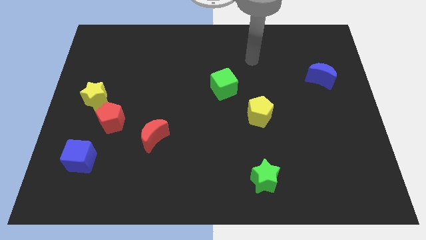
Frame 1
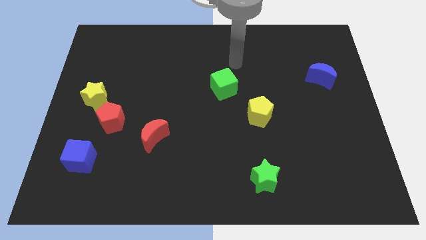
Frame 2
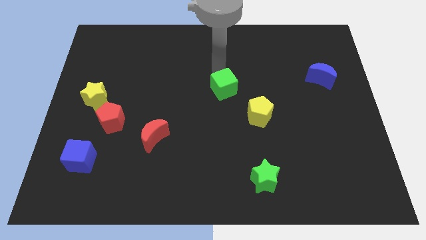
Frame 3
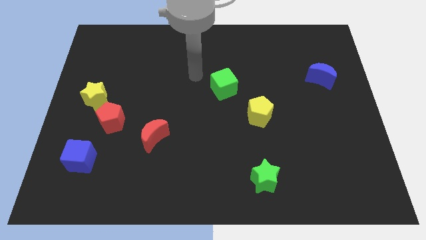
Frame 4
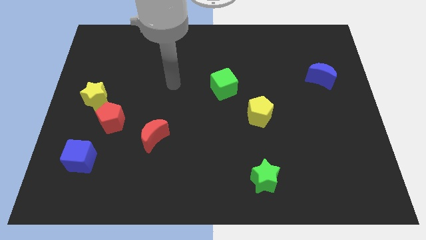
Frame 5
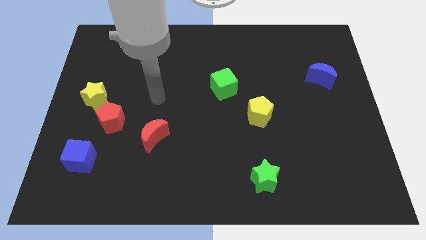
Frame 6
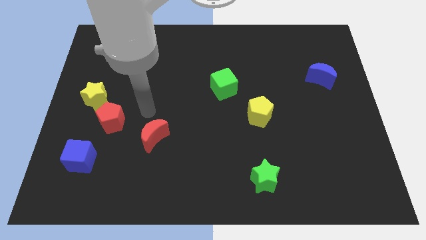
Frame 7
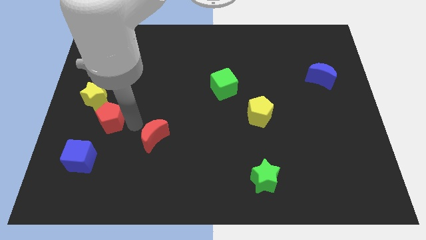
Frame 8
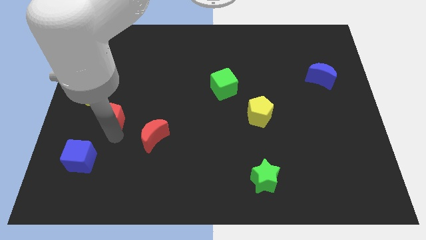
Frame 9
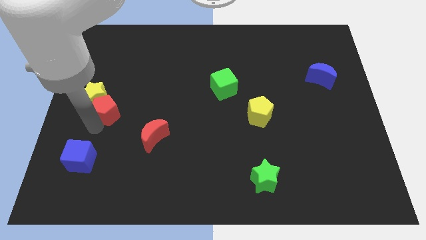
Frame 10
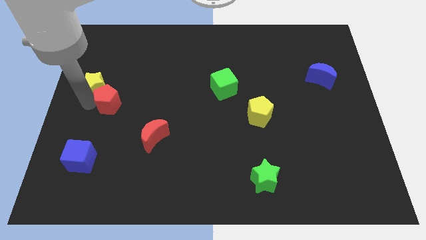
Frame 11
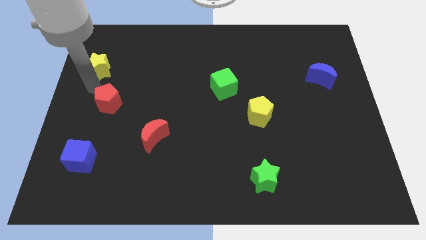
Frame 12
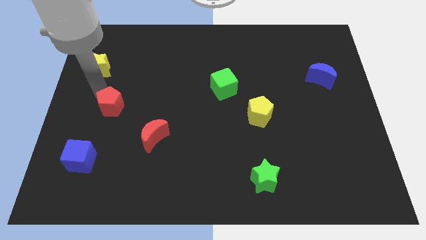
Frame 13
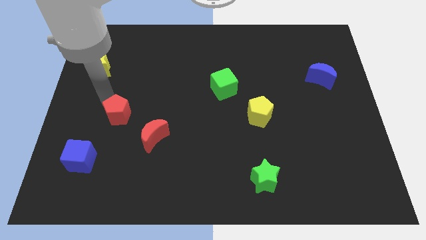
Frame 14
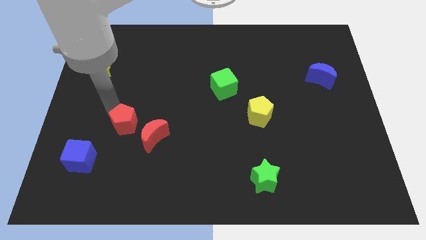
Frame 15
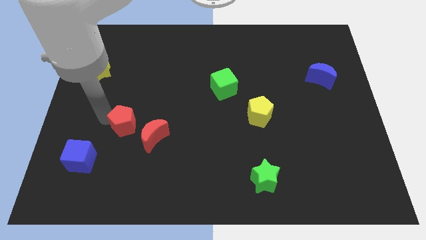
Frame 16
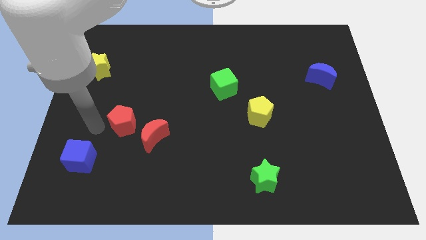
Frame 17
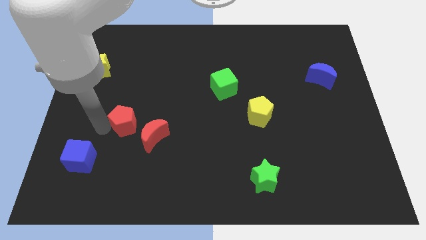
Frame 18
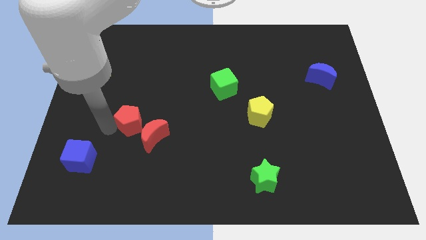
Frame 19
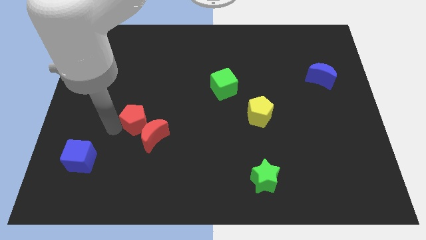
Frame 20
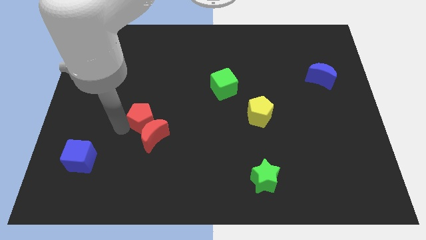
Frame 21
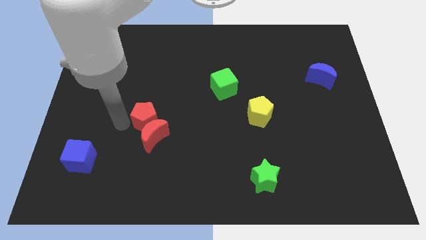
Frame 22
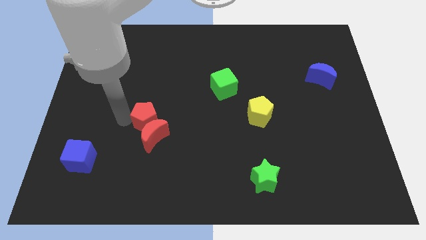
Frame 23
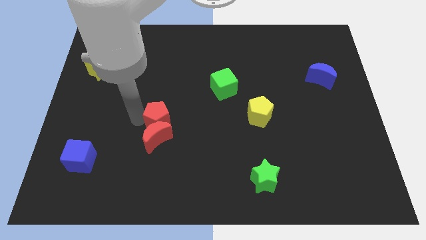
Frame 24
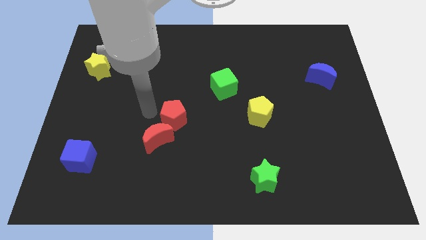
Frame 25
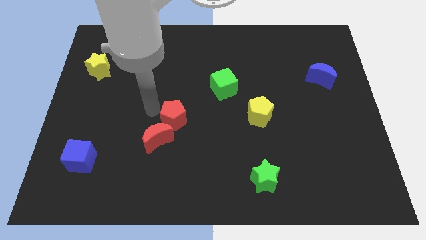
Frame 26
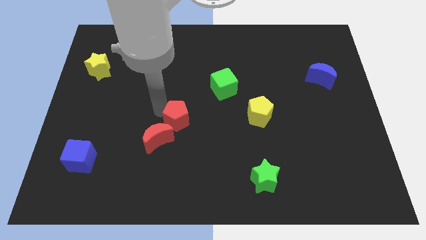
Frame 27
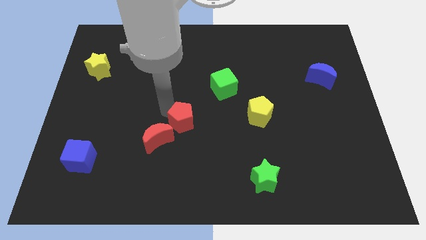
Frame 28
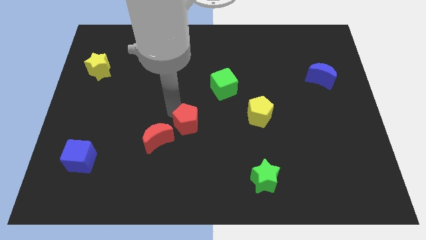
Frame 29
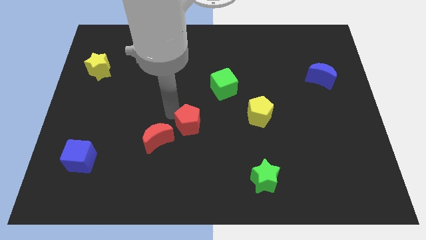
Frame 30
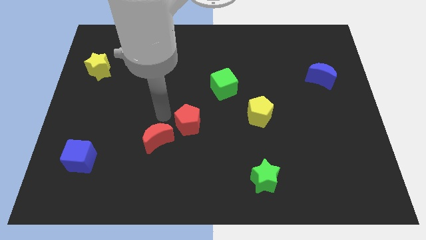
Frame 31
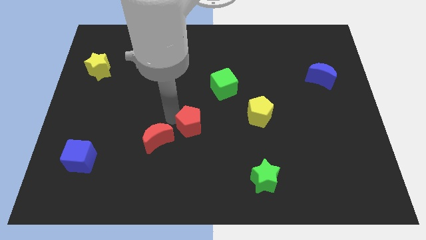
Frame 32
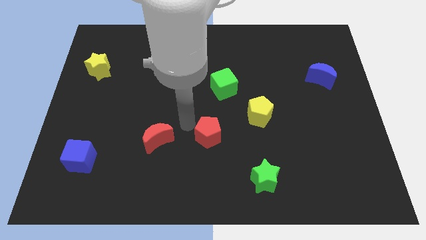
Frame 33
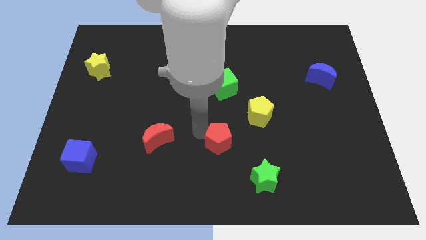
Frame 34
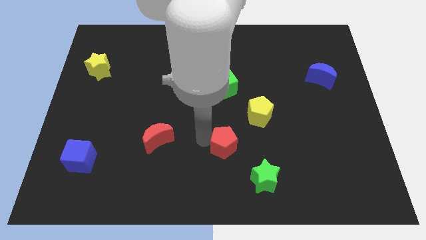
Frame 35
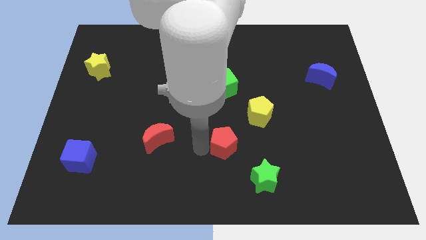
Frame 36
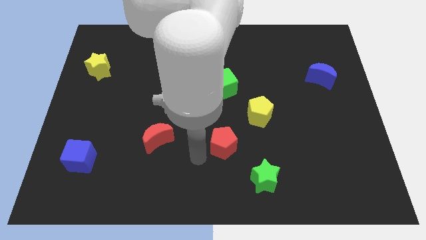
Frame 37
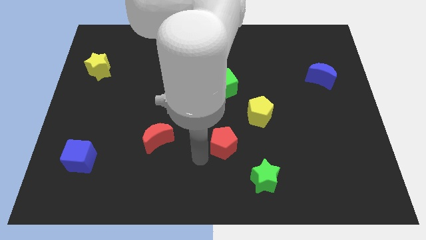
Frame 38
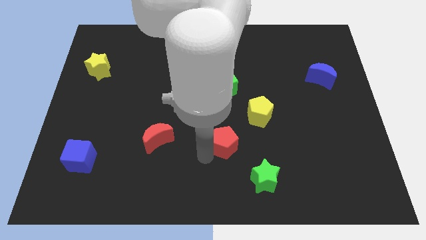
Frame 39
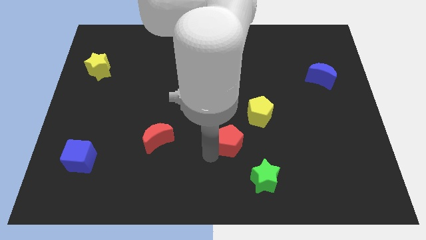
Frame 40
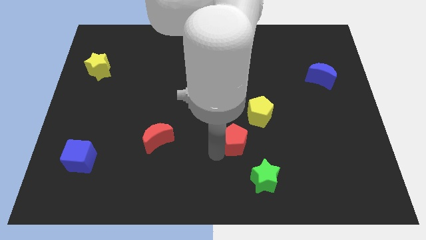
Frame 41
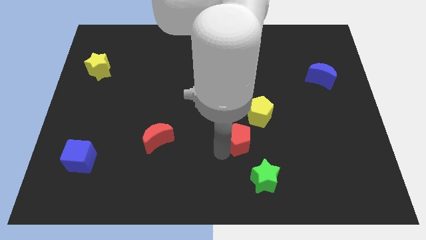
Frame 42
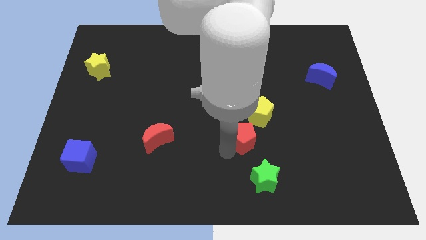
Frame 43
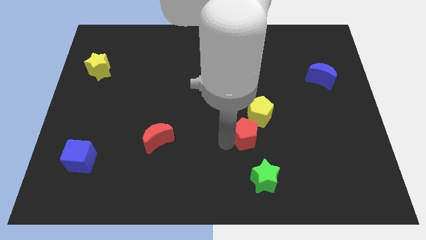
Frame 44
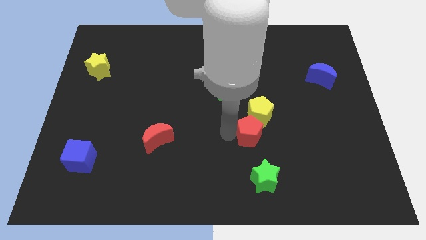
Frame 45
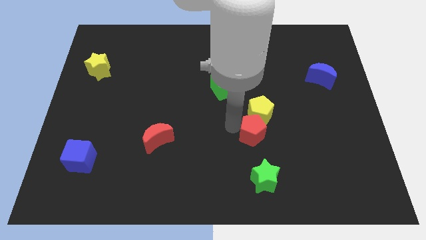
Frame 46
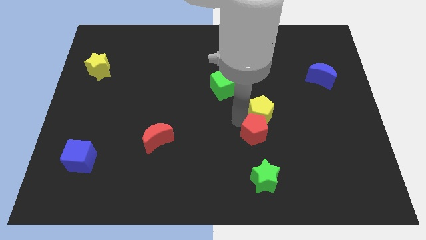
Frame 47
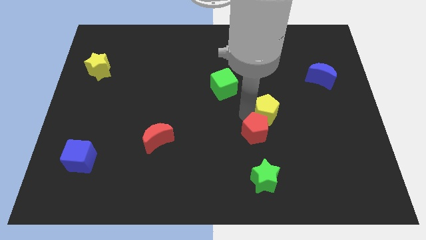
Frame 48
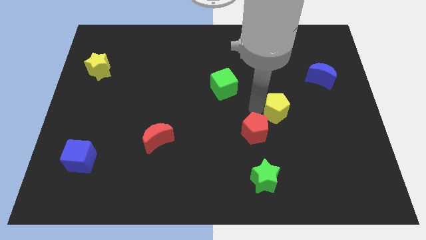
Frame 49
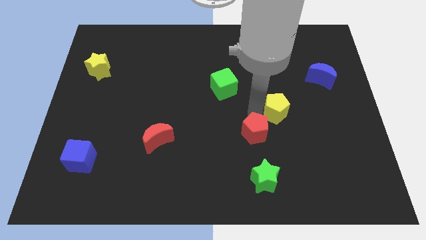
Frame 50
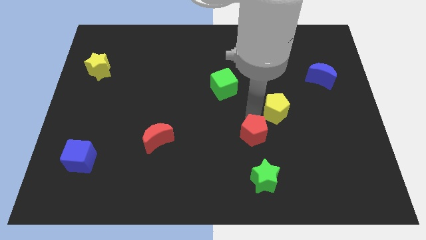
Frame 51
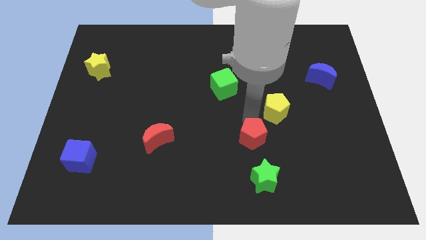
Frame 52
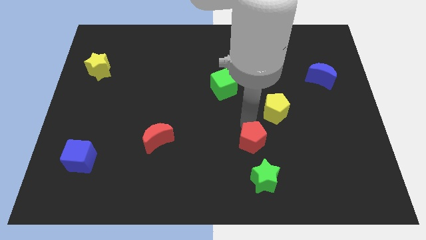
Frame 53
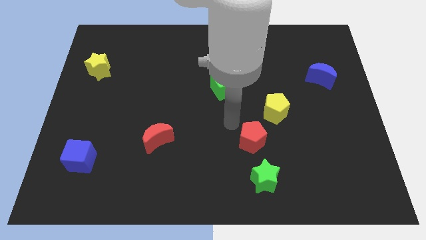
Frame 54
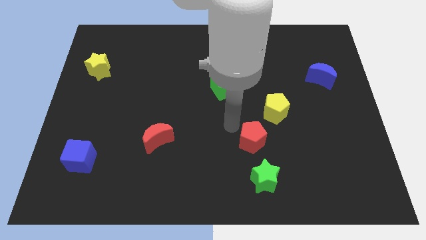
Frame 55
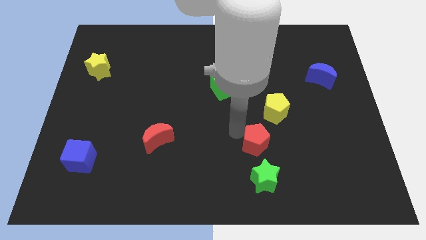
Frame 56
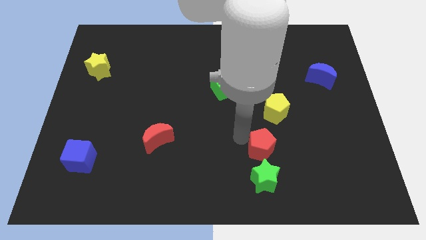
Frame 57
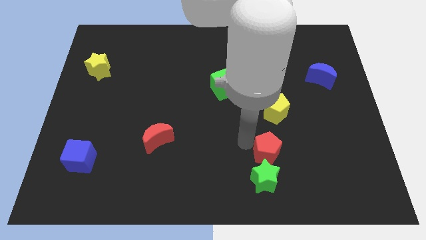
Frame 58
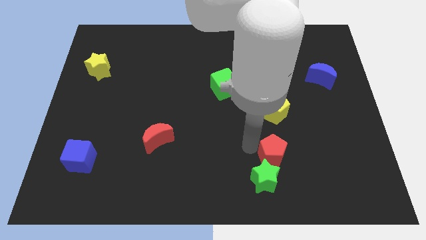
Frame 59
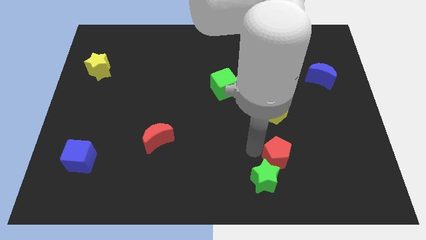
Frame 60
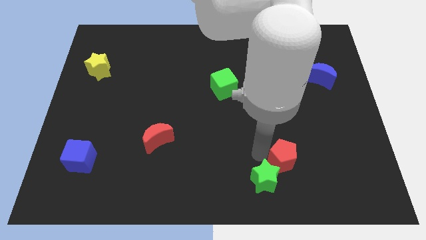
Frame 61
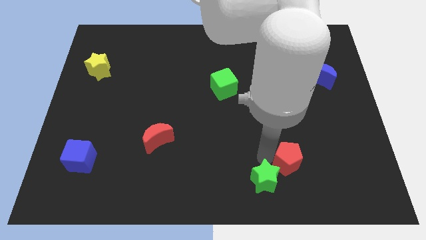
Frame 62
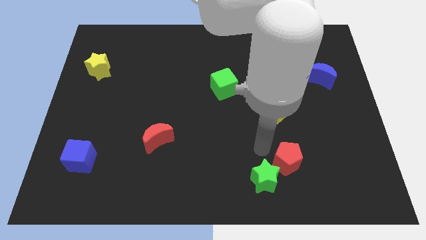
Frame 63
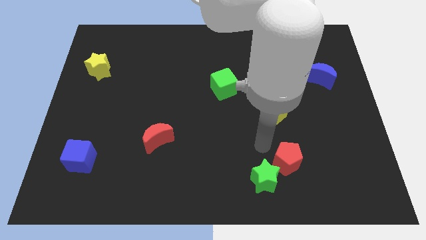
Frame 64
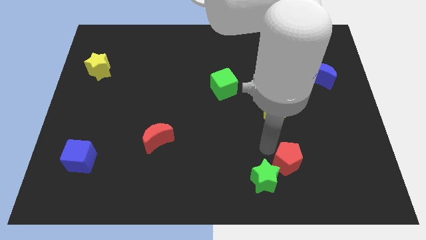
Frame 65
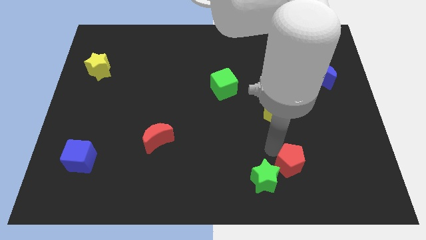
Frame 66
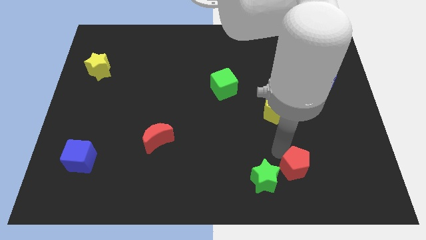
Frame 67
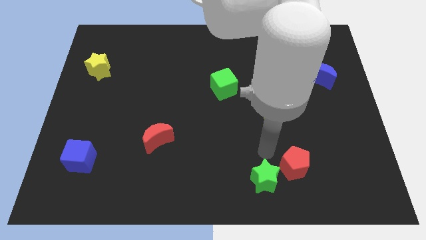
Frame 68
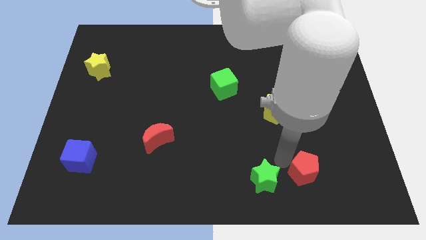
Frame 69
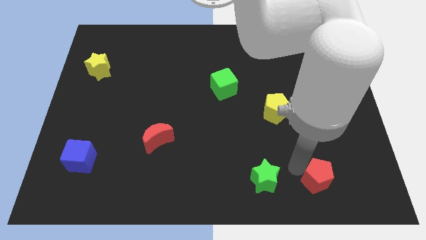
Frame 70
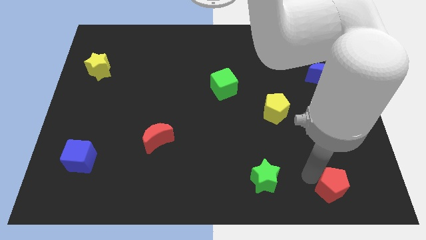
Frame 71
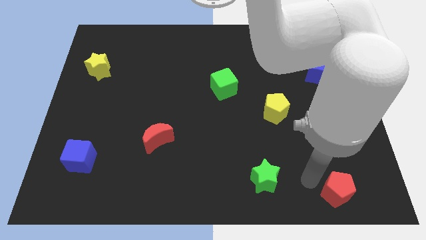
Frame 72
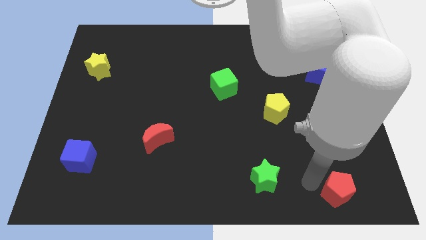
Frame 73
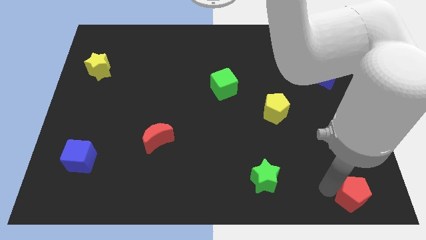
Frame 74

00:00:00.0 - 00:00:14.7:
put the red pentagon to the lower right corner
